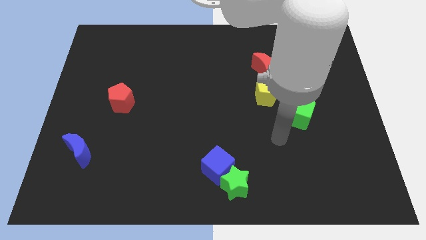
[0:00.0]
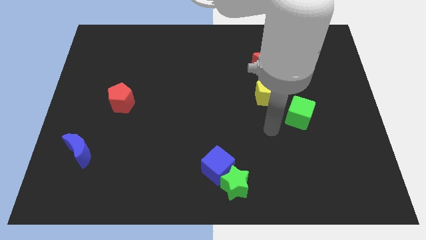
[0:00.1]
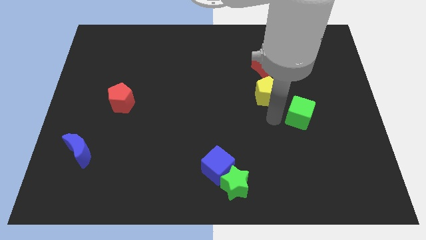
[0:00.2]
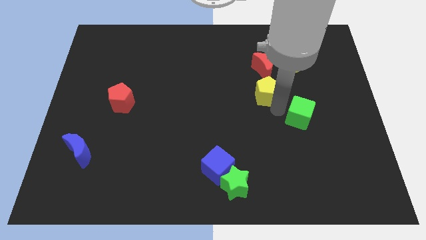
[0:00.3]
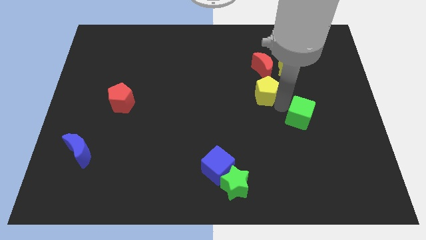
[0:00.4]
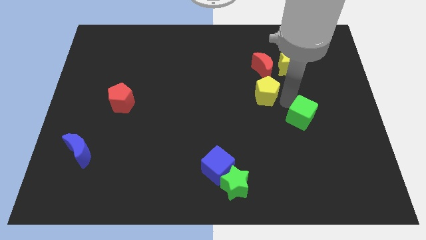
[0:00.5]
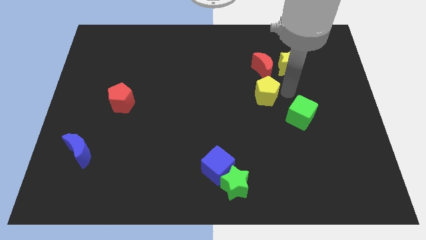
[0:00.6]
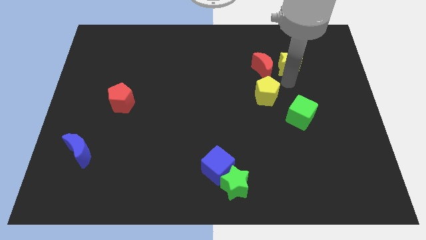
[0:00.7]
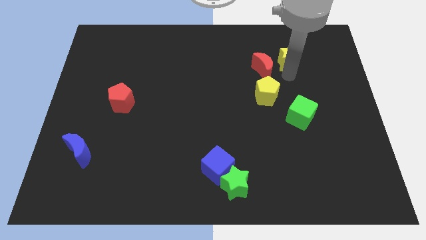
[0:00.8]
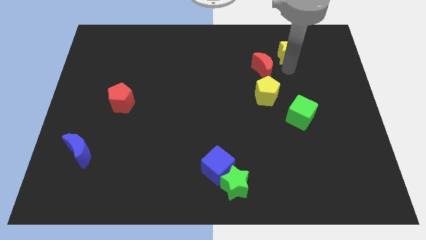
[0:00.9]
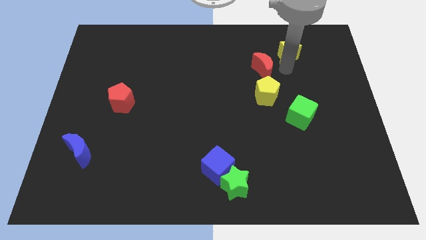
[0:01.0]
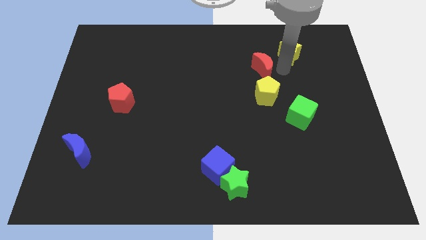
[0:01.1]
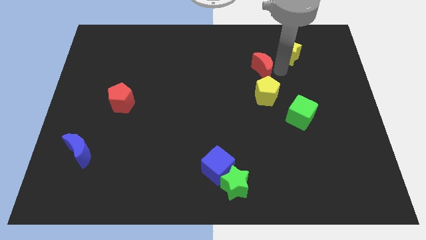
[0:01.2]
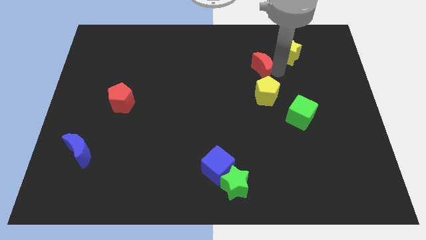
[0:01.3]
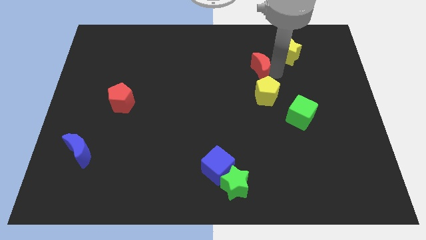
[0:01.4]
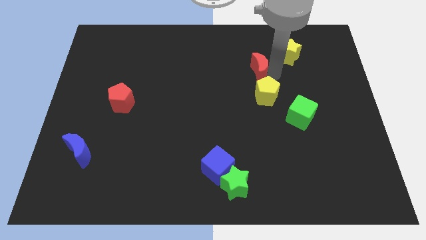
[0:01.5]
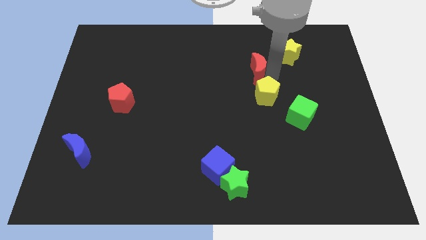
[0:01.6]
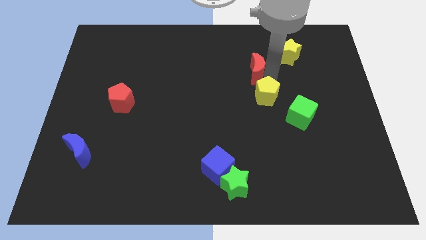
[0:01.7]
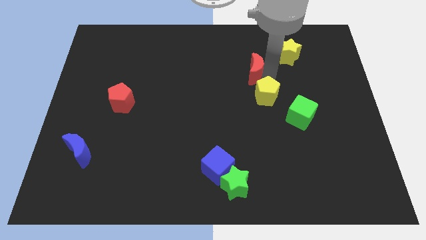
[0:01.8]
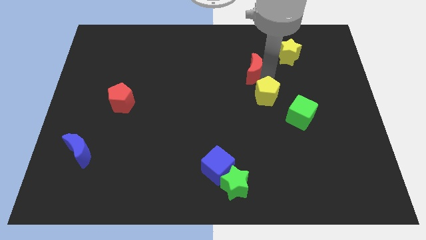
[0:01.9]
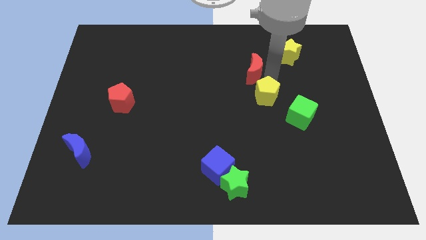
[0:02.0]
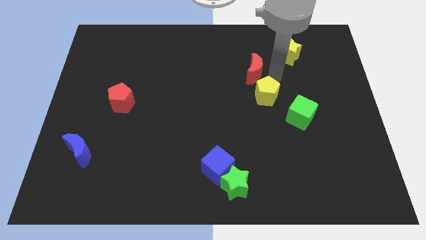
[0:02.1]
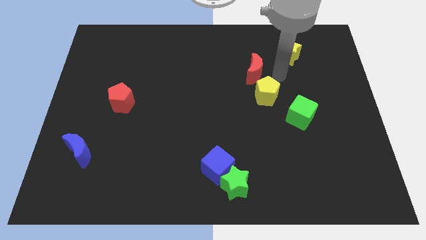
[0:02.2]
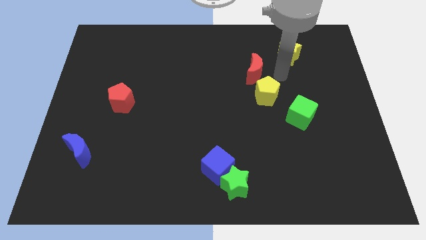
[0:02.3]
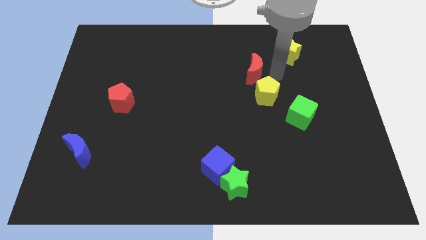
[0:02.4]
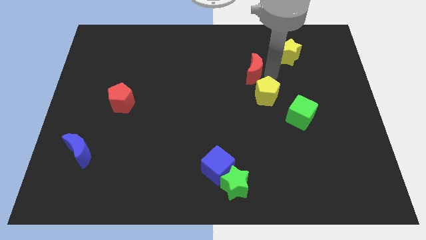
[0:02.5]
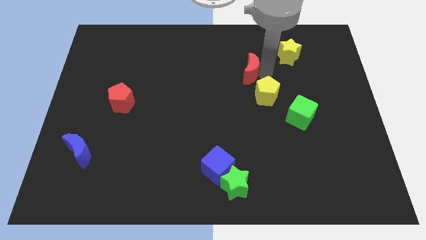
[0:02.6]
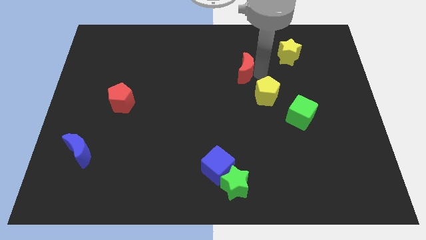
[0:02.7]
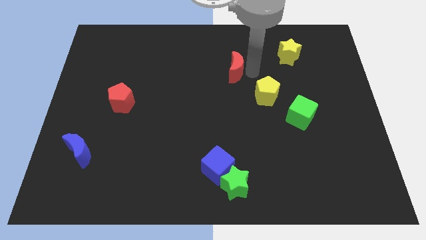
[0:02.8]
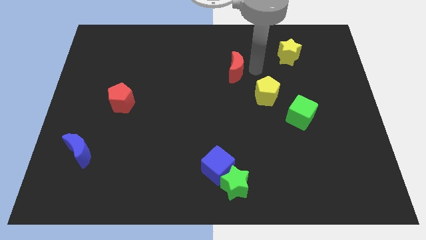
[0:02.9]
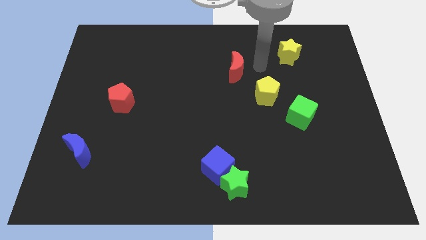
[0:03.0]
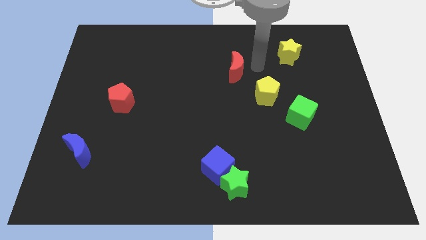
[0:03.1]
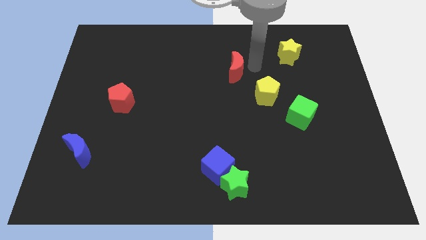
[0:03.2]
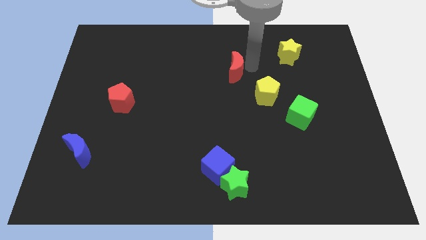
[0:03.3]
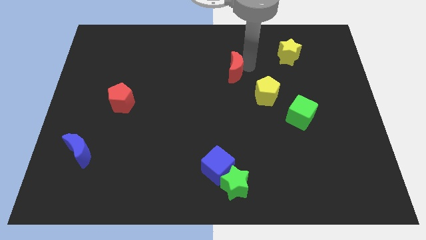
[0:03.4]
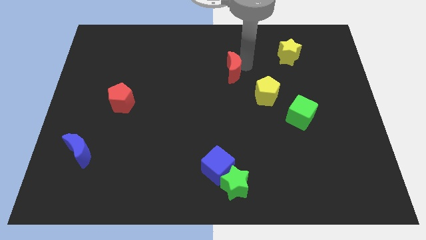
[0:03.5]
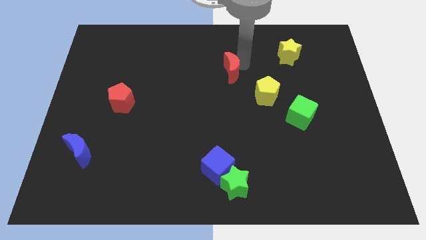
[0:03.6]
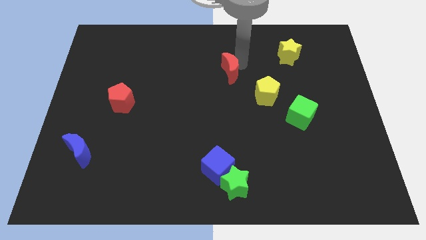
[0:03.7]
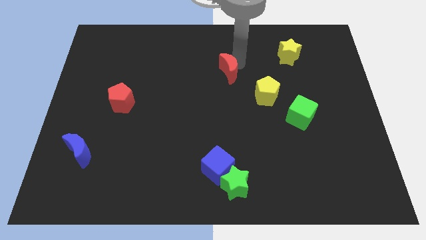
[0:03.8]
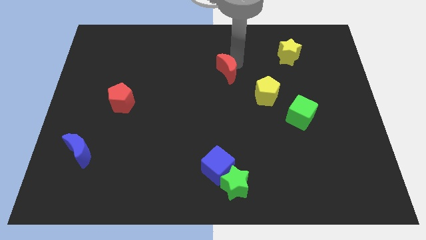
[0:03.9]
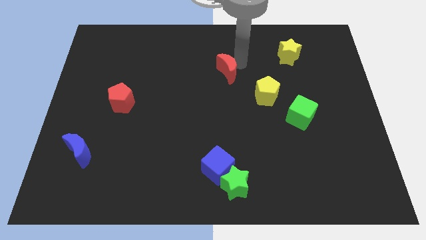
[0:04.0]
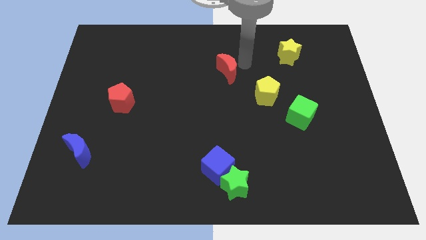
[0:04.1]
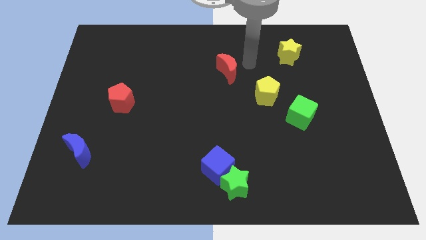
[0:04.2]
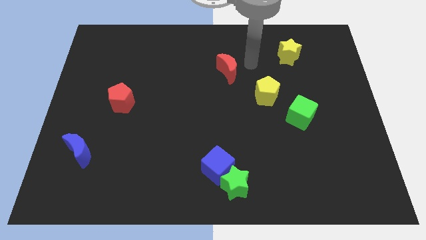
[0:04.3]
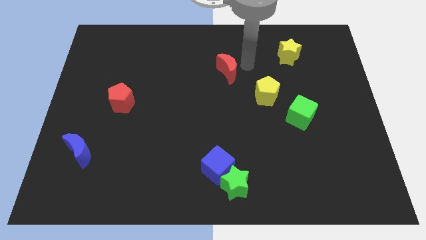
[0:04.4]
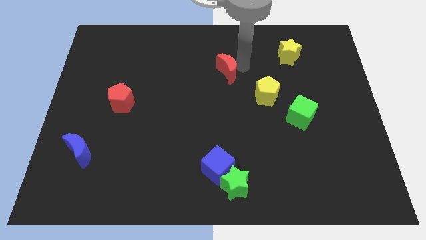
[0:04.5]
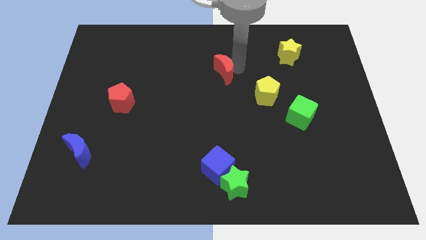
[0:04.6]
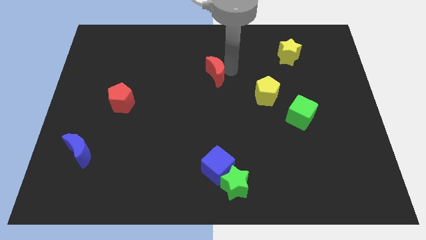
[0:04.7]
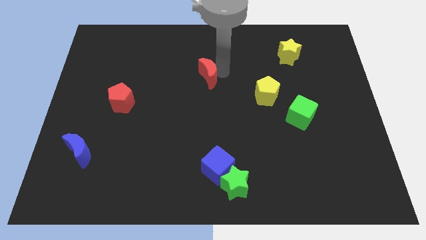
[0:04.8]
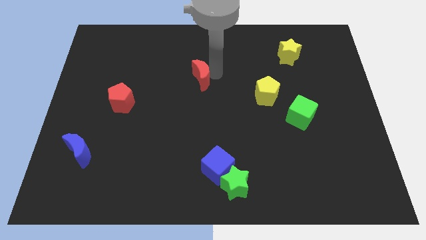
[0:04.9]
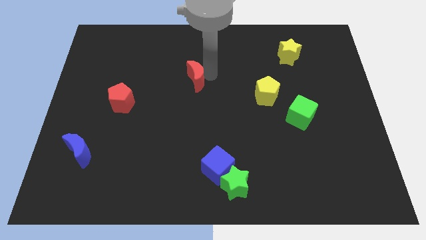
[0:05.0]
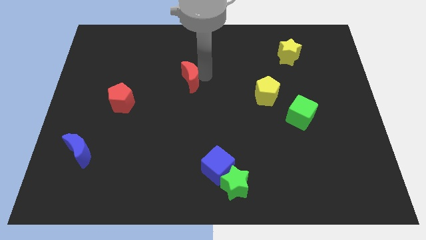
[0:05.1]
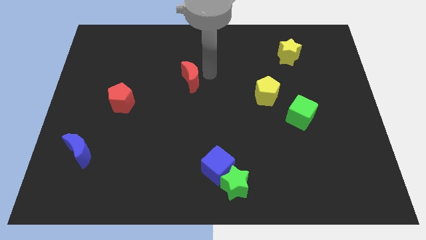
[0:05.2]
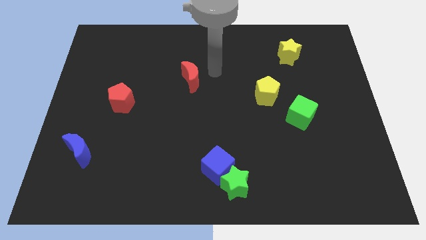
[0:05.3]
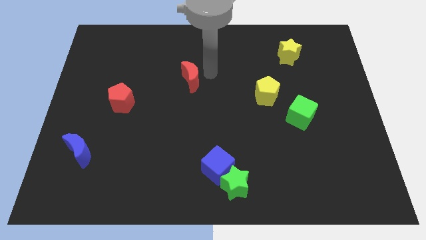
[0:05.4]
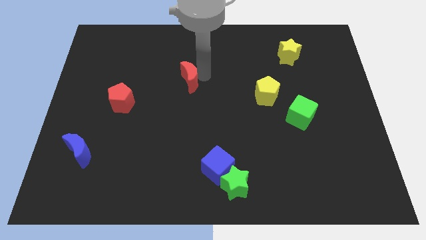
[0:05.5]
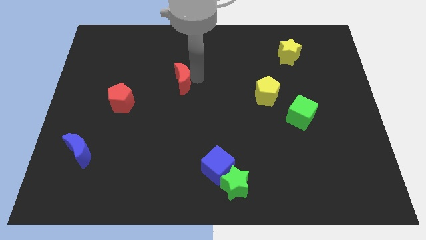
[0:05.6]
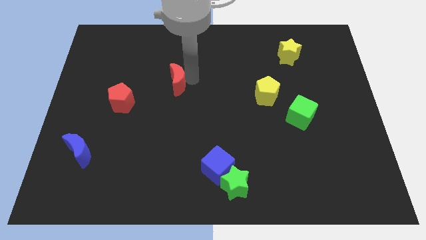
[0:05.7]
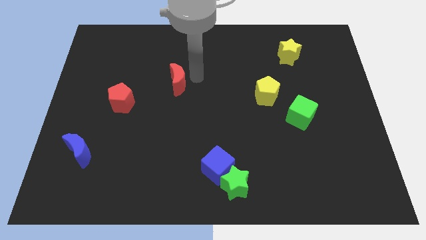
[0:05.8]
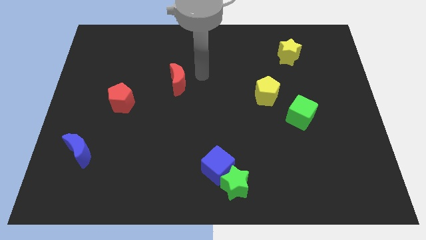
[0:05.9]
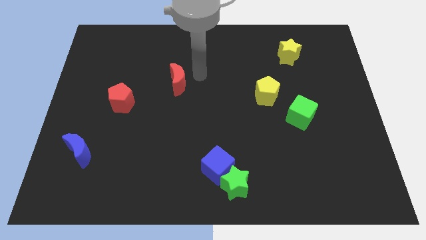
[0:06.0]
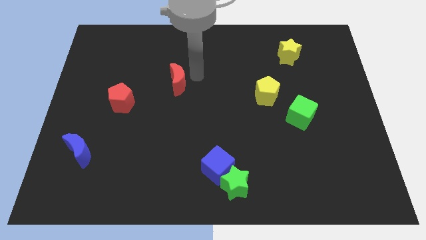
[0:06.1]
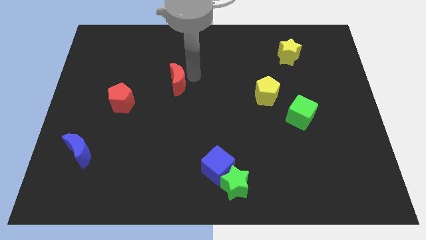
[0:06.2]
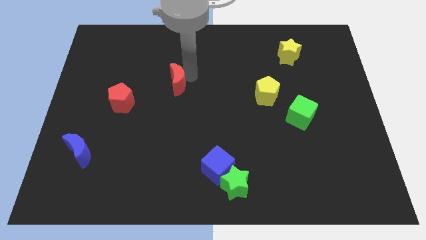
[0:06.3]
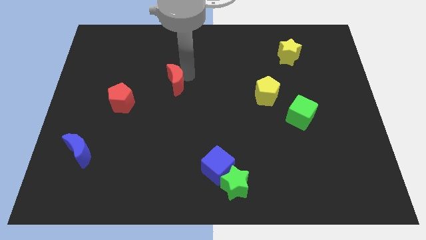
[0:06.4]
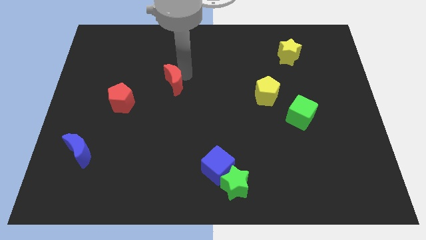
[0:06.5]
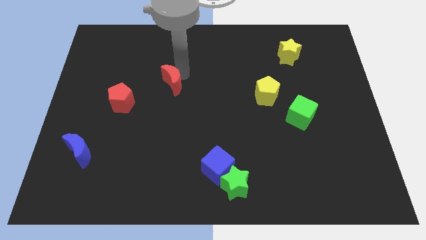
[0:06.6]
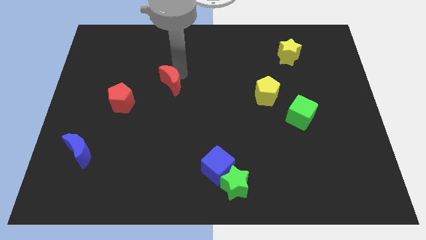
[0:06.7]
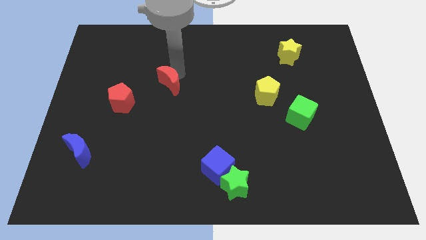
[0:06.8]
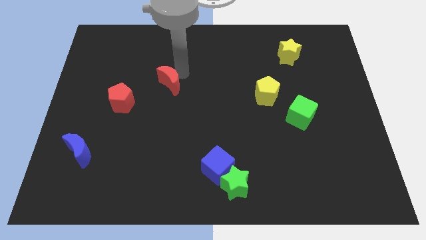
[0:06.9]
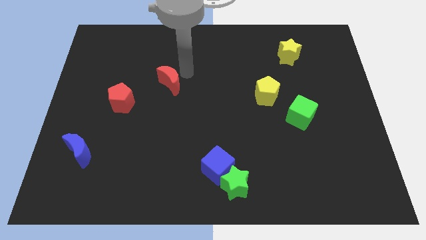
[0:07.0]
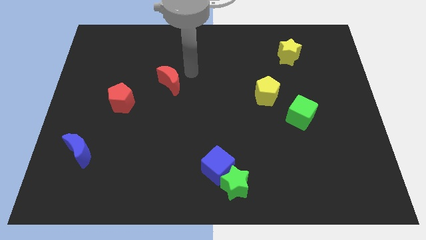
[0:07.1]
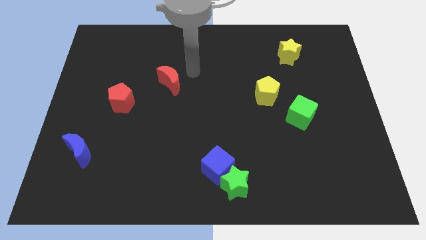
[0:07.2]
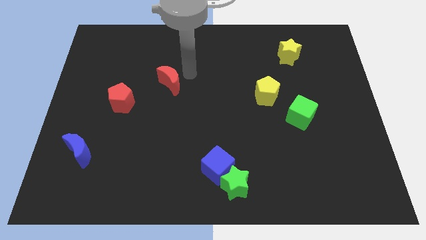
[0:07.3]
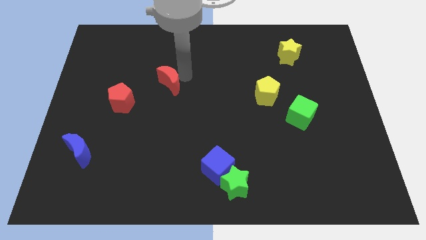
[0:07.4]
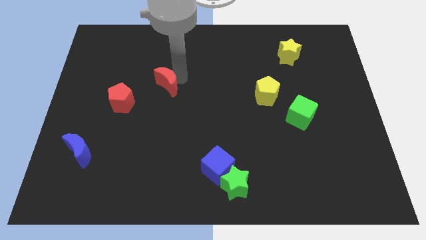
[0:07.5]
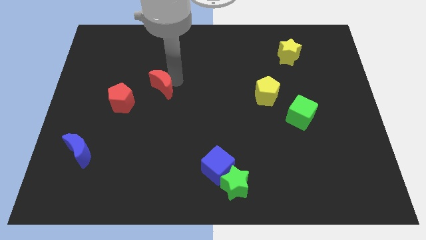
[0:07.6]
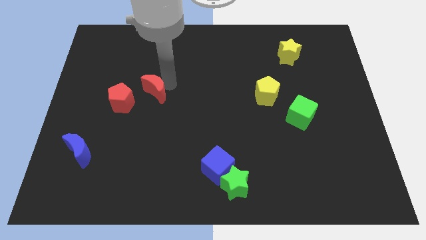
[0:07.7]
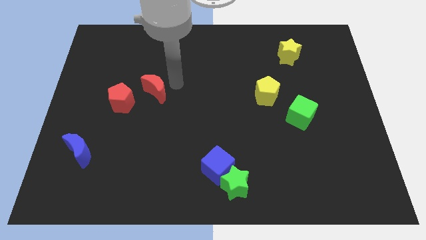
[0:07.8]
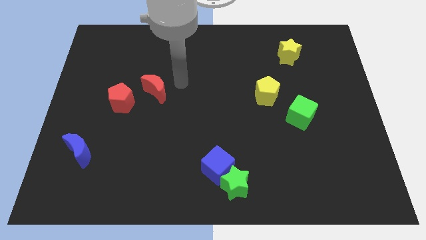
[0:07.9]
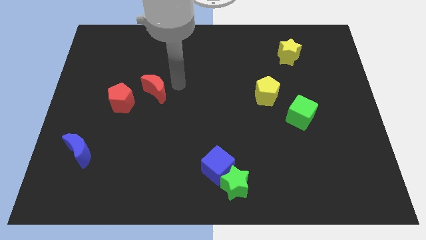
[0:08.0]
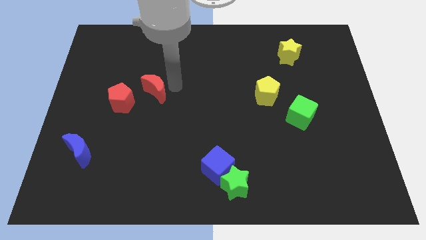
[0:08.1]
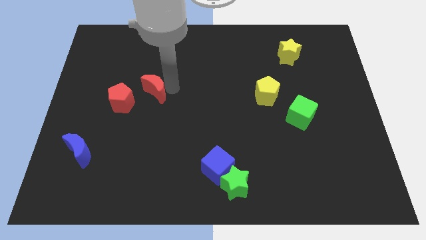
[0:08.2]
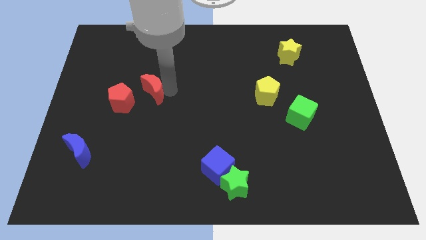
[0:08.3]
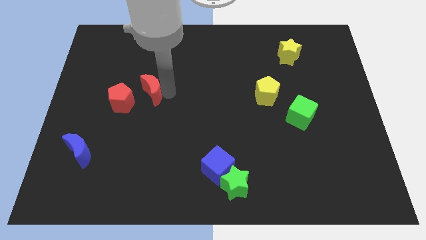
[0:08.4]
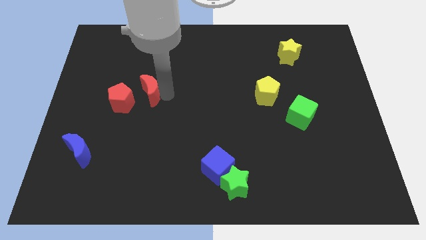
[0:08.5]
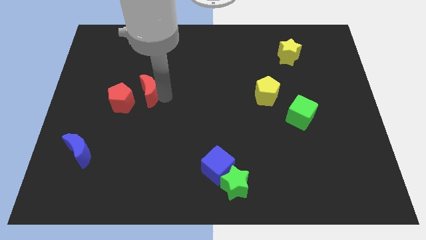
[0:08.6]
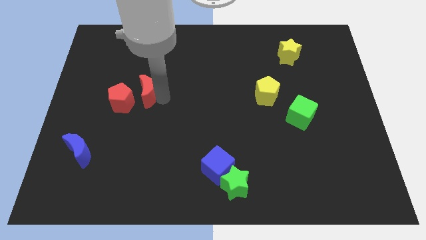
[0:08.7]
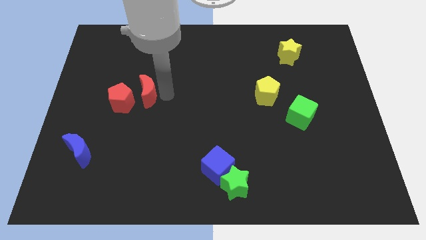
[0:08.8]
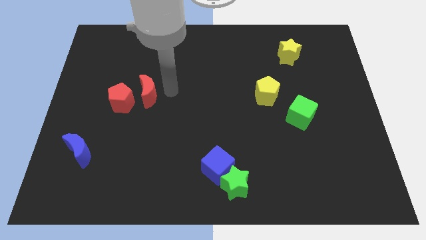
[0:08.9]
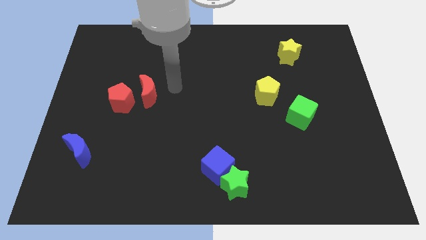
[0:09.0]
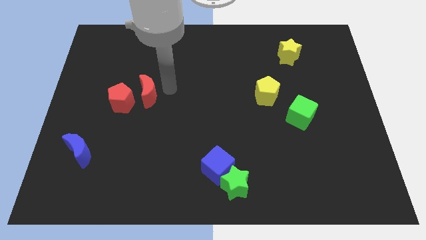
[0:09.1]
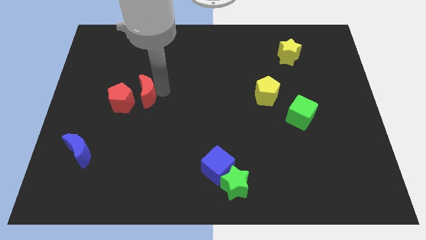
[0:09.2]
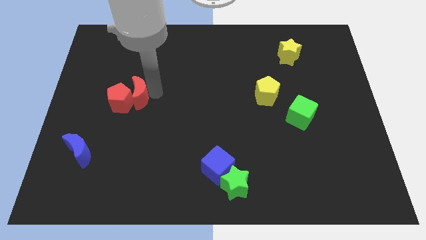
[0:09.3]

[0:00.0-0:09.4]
put the red moon next to the red pentagon
